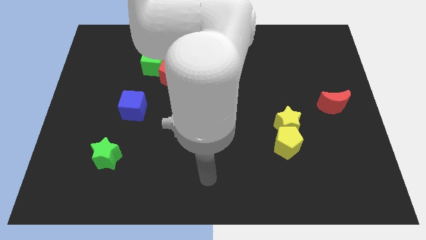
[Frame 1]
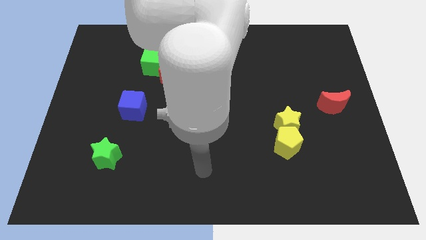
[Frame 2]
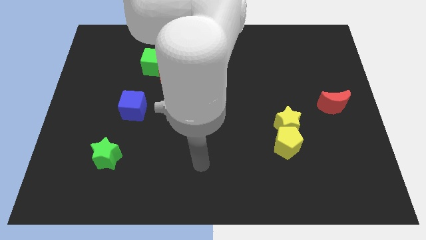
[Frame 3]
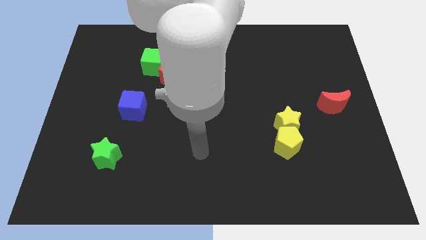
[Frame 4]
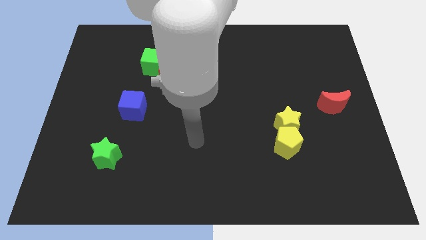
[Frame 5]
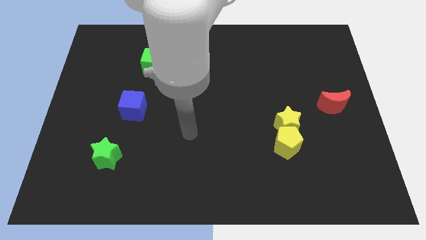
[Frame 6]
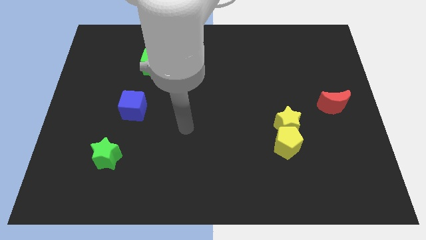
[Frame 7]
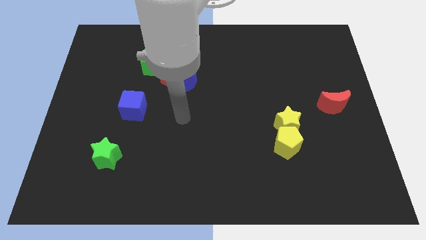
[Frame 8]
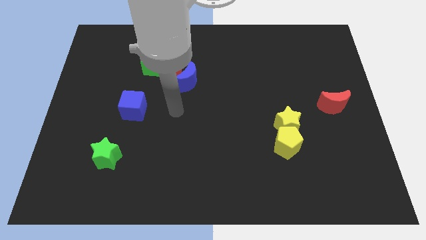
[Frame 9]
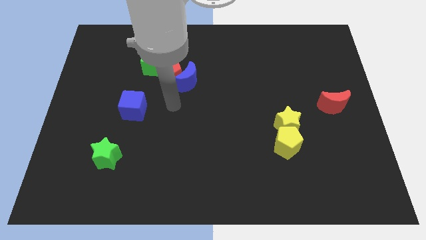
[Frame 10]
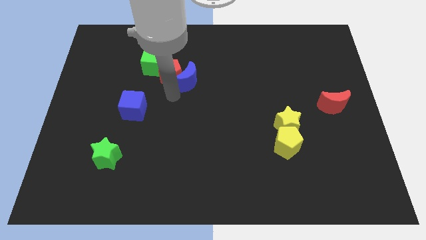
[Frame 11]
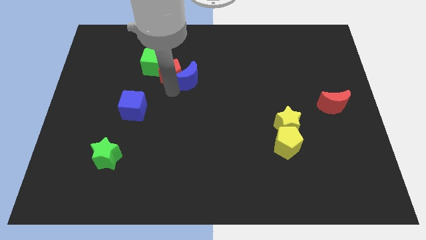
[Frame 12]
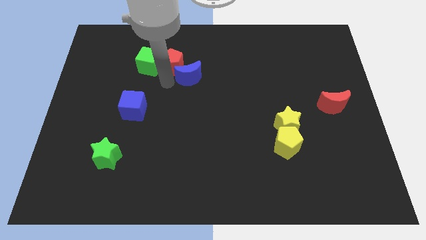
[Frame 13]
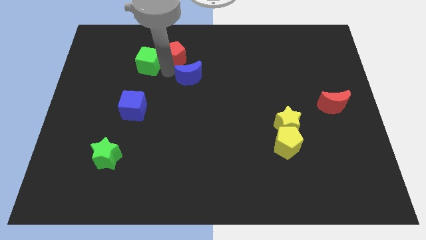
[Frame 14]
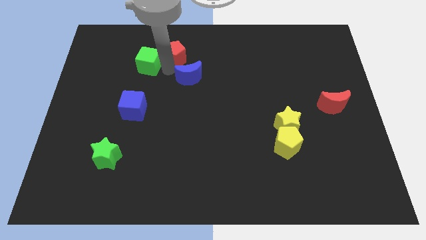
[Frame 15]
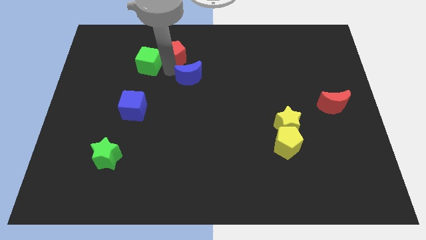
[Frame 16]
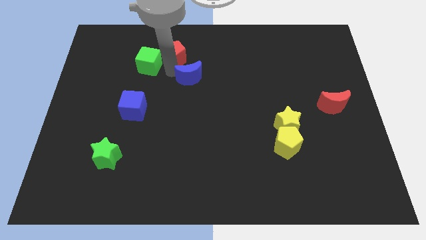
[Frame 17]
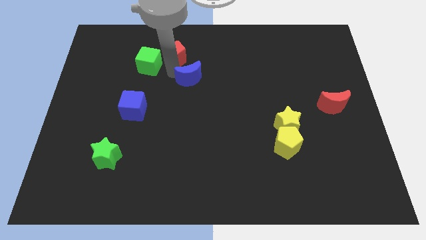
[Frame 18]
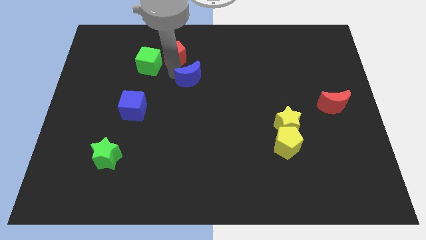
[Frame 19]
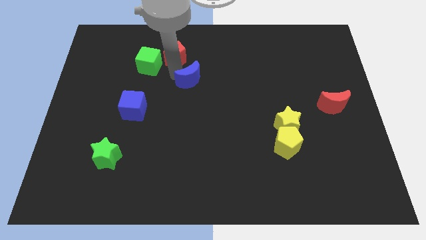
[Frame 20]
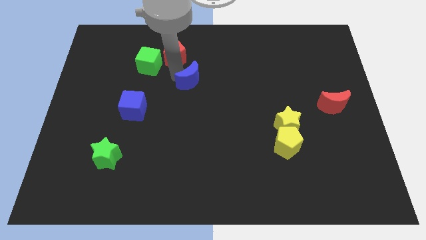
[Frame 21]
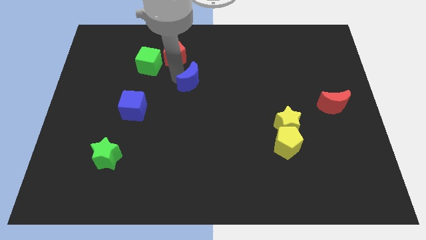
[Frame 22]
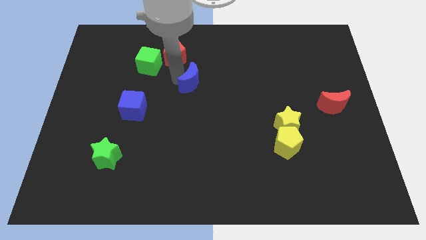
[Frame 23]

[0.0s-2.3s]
move the blue moon away from the red pentagon

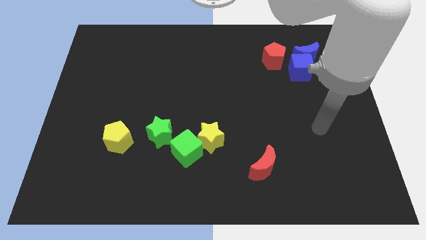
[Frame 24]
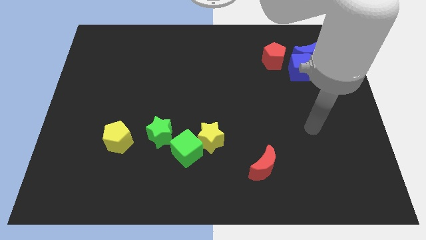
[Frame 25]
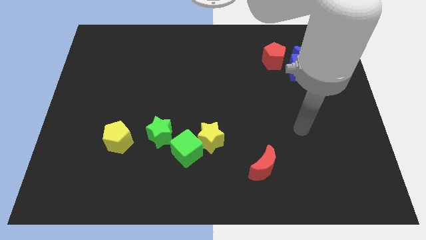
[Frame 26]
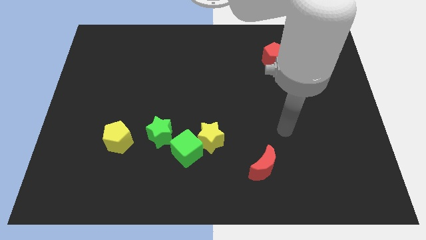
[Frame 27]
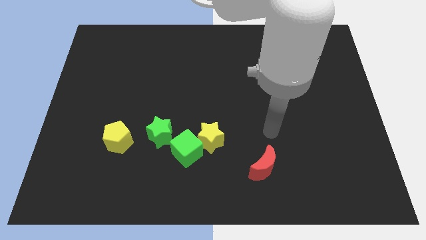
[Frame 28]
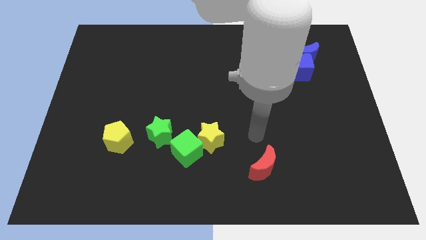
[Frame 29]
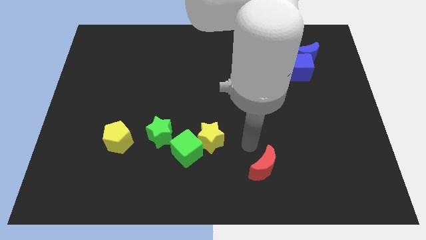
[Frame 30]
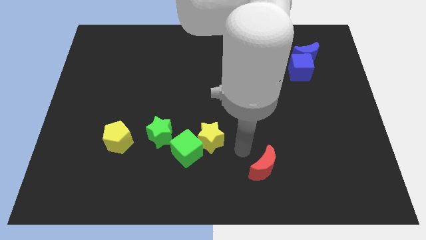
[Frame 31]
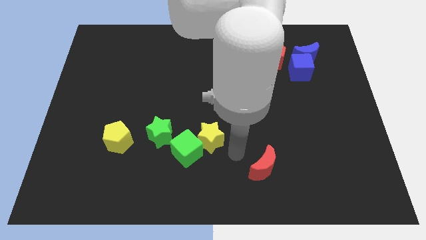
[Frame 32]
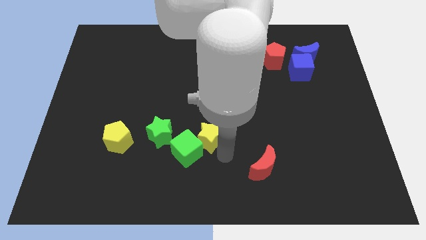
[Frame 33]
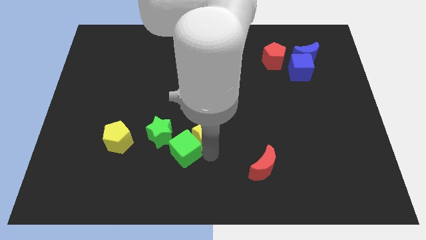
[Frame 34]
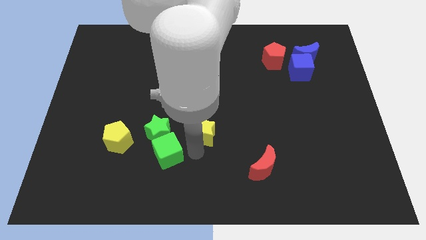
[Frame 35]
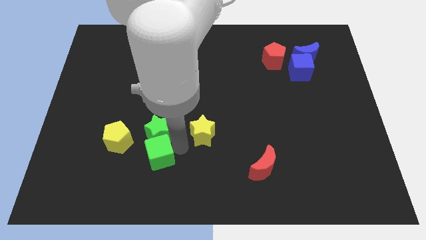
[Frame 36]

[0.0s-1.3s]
pull the yellow star apart from the green cube

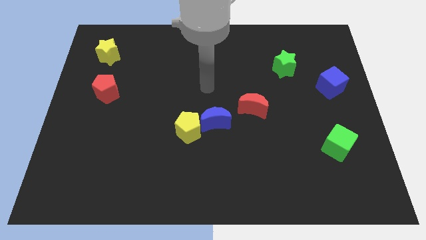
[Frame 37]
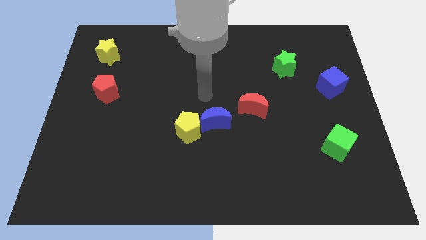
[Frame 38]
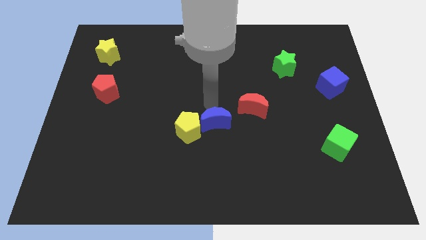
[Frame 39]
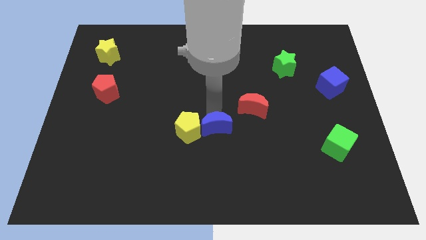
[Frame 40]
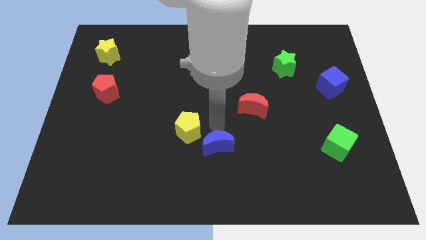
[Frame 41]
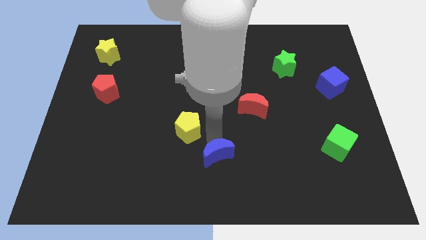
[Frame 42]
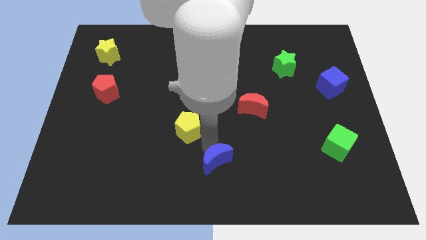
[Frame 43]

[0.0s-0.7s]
move the yellow pentagon away from the blue moon

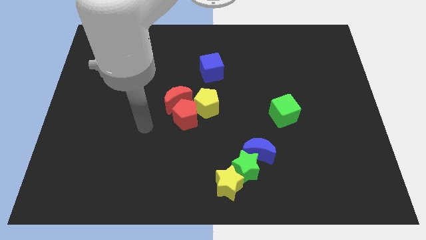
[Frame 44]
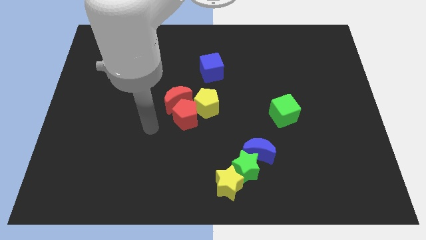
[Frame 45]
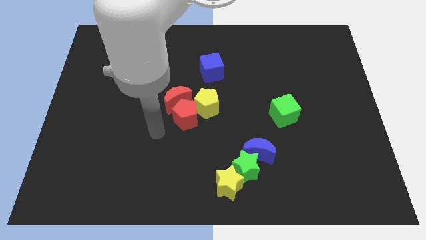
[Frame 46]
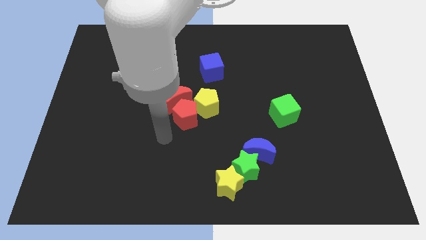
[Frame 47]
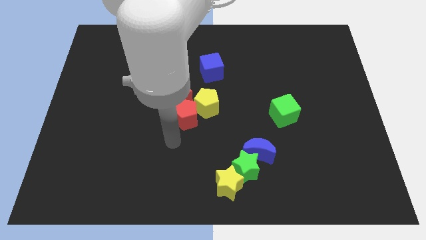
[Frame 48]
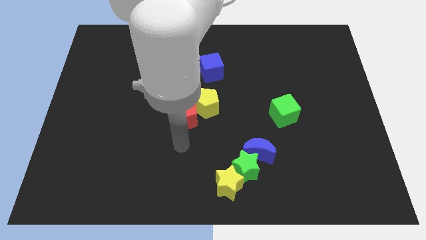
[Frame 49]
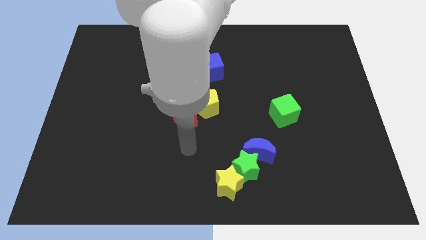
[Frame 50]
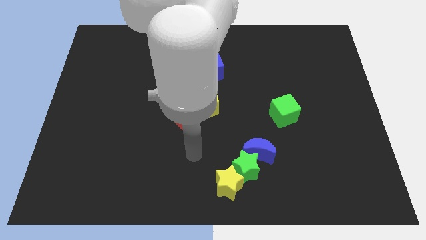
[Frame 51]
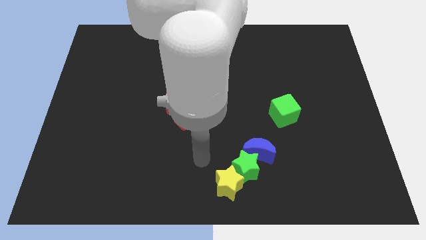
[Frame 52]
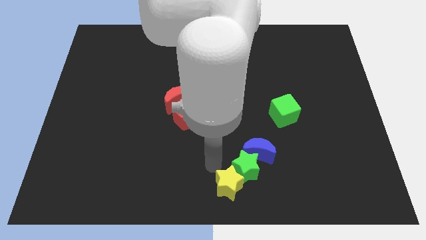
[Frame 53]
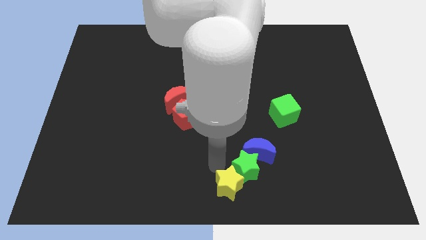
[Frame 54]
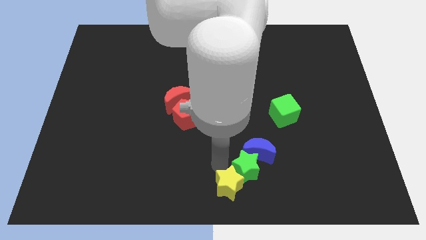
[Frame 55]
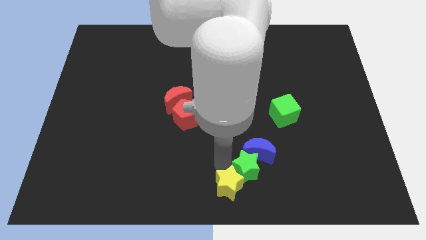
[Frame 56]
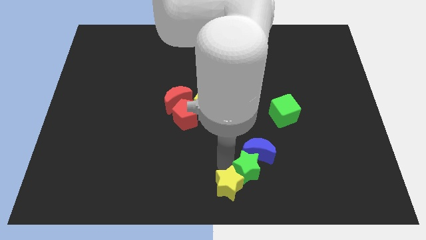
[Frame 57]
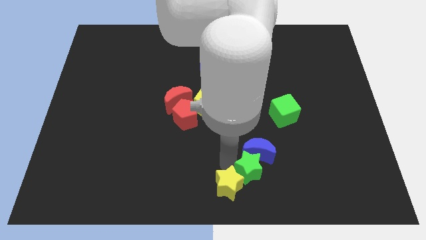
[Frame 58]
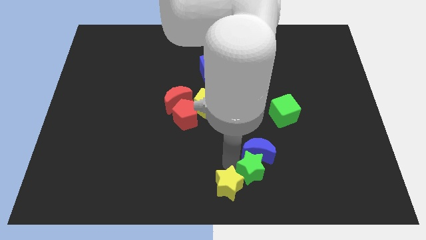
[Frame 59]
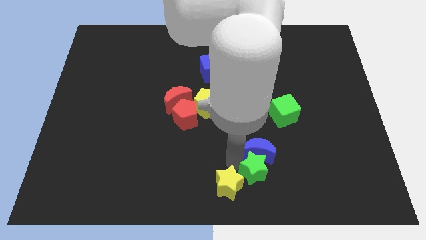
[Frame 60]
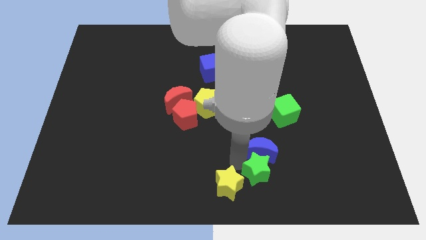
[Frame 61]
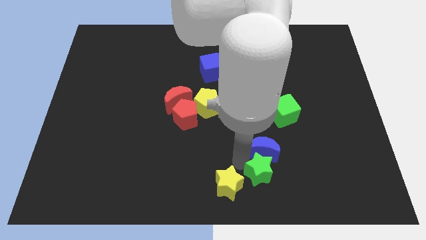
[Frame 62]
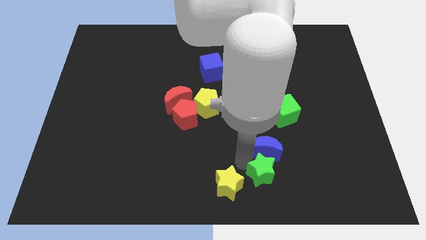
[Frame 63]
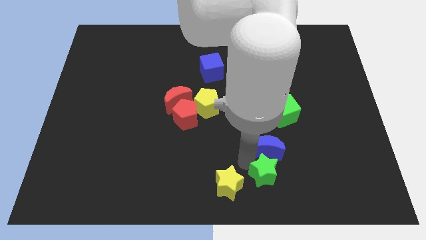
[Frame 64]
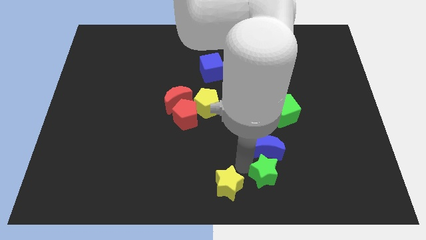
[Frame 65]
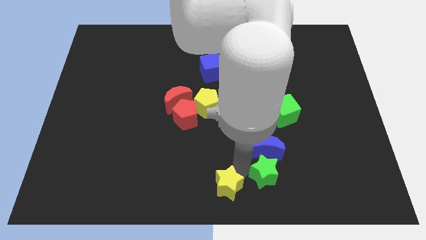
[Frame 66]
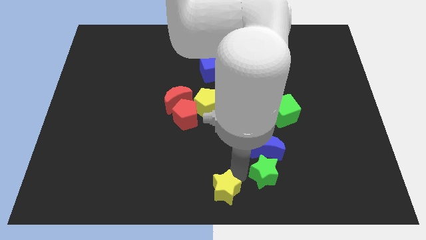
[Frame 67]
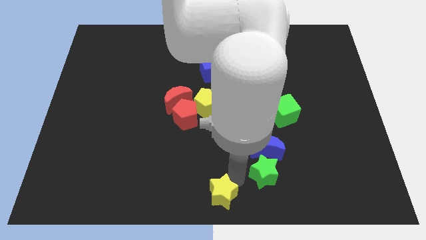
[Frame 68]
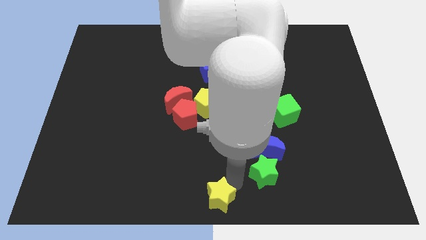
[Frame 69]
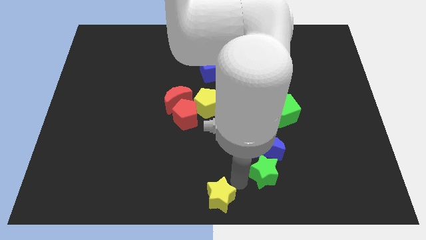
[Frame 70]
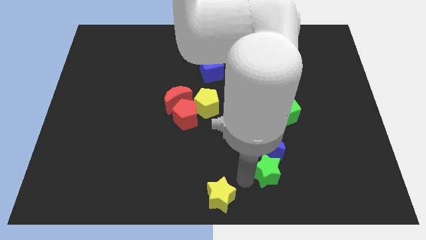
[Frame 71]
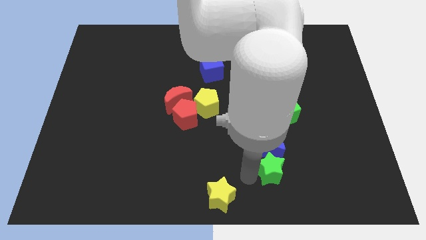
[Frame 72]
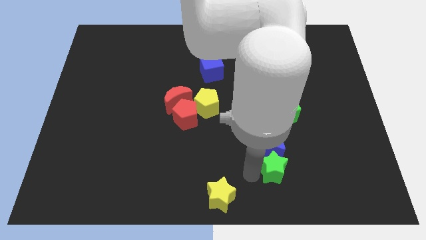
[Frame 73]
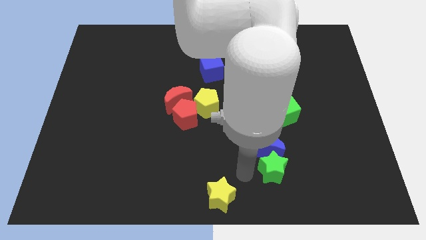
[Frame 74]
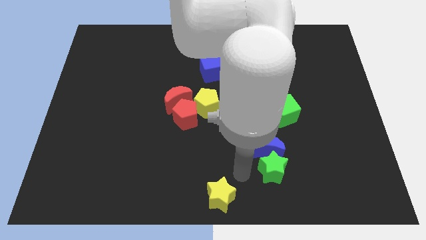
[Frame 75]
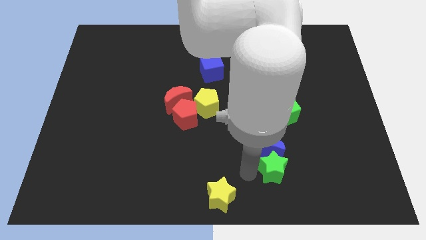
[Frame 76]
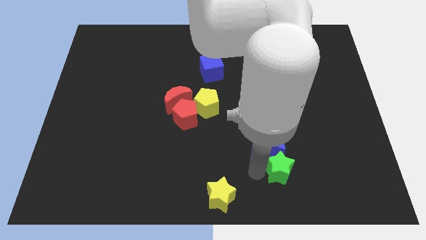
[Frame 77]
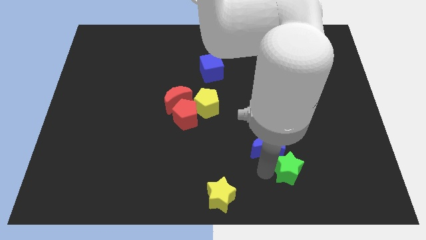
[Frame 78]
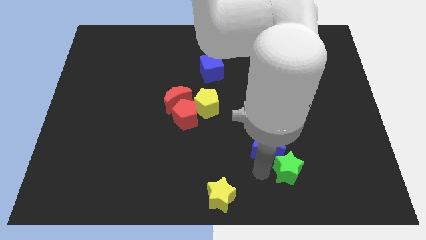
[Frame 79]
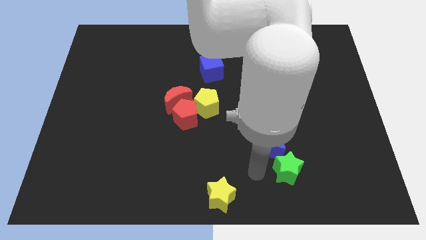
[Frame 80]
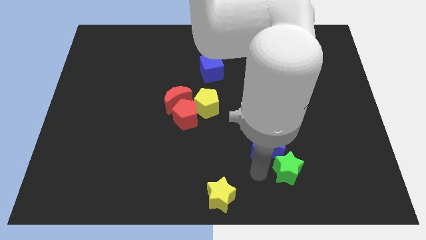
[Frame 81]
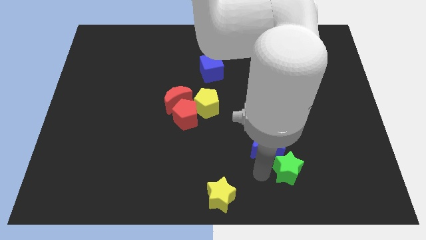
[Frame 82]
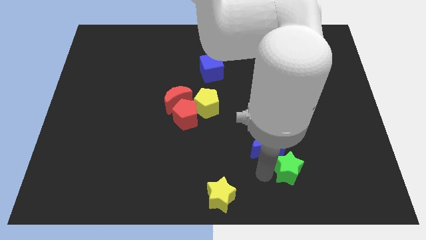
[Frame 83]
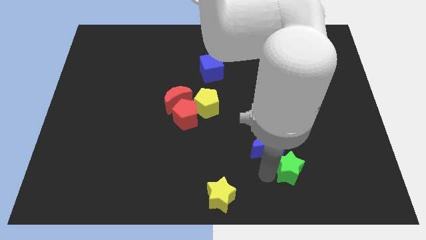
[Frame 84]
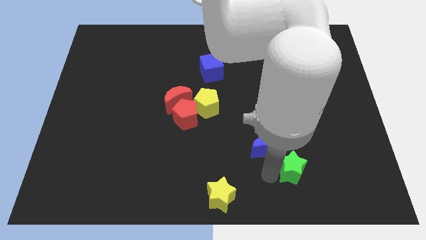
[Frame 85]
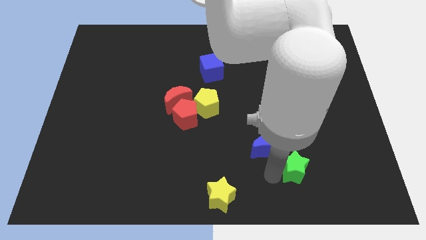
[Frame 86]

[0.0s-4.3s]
move the green star away from the blue moon and yellow star

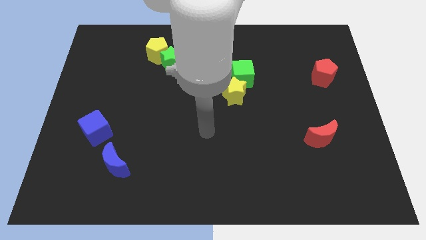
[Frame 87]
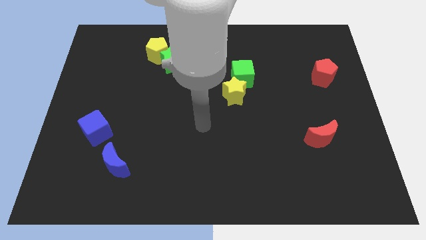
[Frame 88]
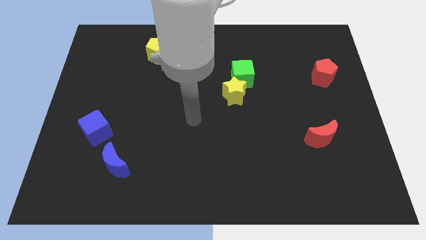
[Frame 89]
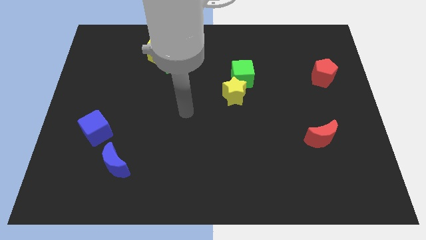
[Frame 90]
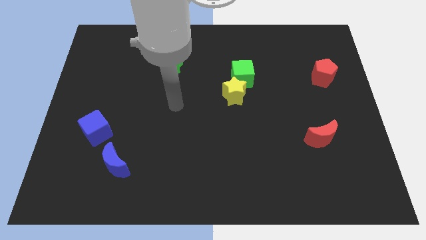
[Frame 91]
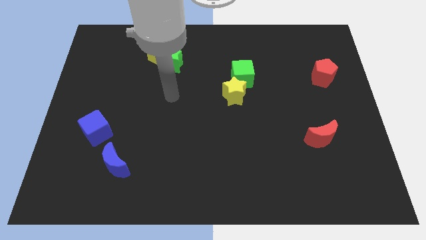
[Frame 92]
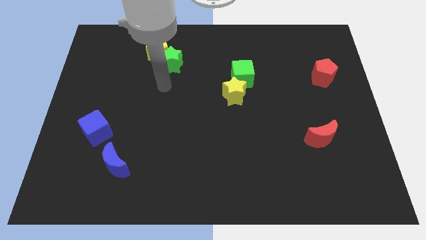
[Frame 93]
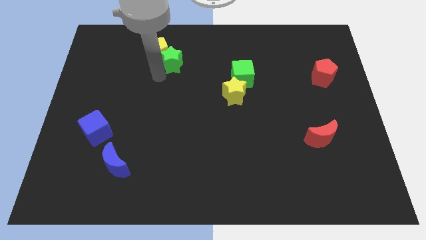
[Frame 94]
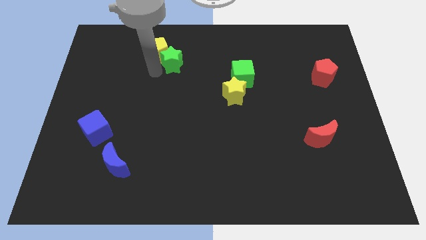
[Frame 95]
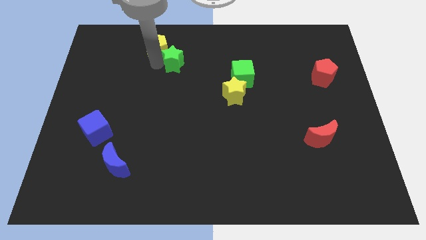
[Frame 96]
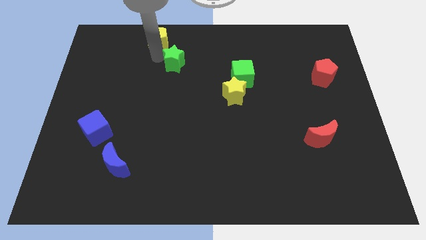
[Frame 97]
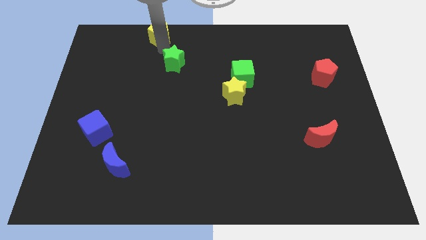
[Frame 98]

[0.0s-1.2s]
pull the green star apart from the yellow pentagon
